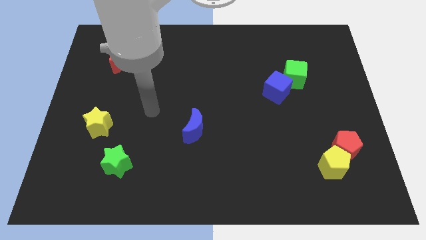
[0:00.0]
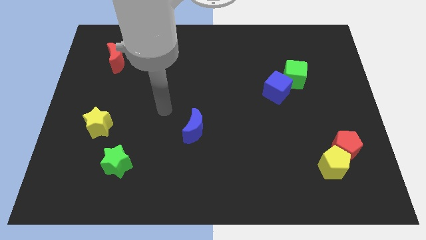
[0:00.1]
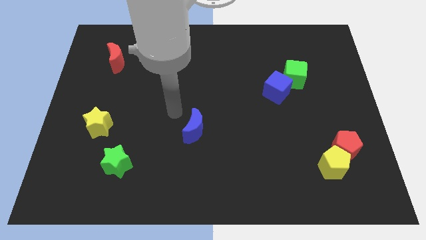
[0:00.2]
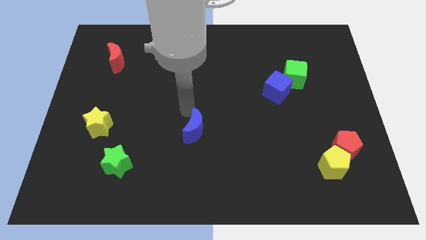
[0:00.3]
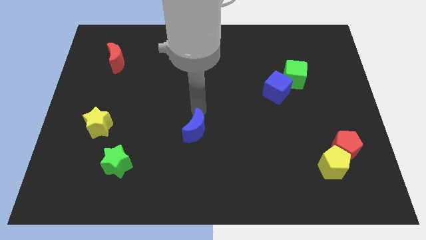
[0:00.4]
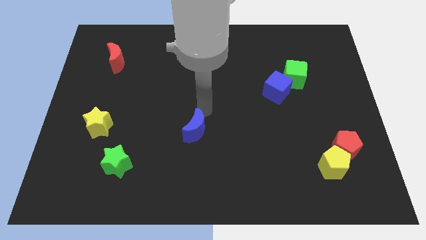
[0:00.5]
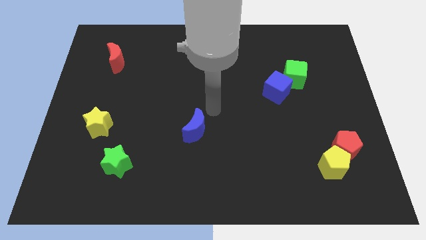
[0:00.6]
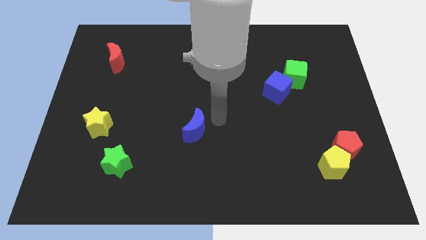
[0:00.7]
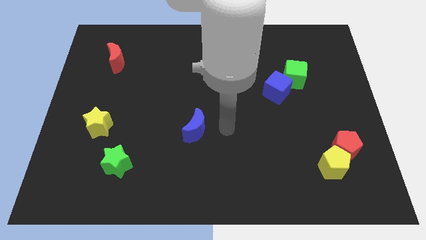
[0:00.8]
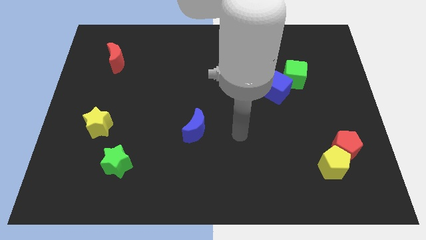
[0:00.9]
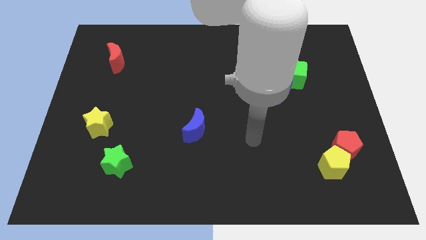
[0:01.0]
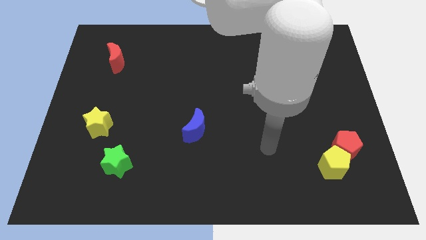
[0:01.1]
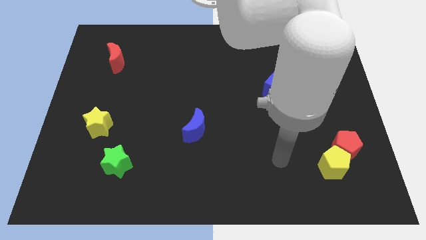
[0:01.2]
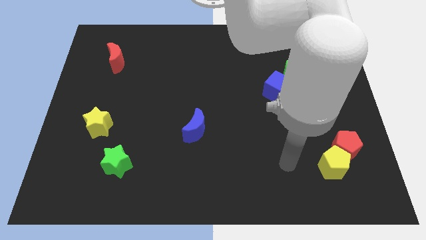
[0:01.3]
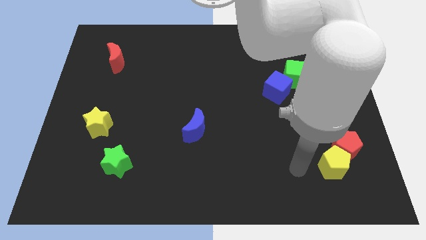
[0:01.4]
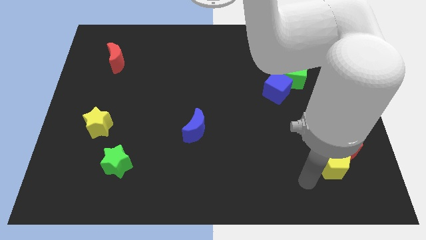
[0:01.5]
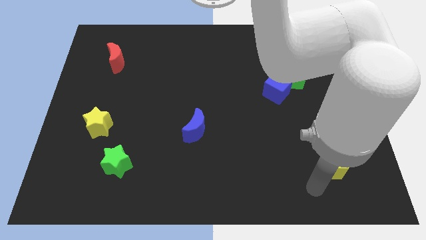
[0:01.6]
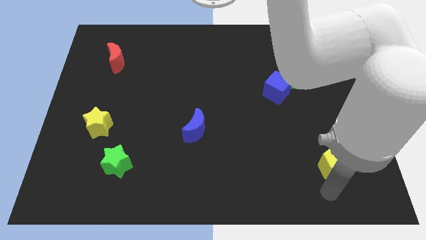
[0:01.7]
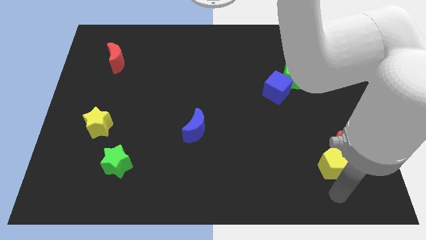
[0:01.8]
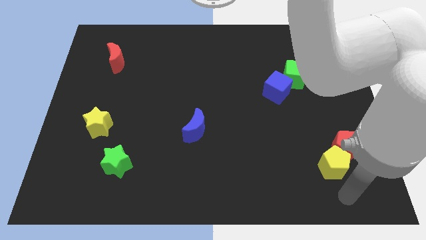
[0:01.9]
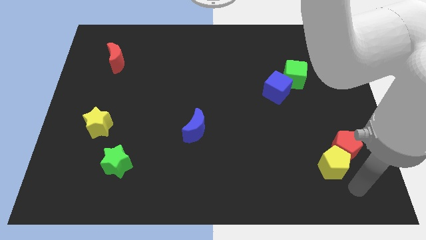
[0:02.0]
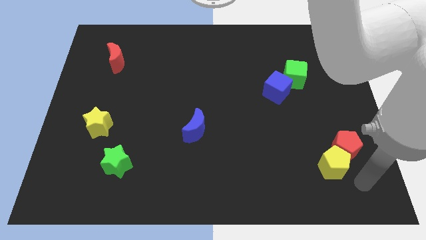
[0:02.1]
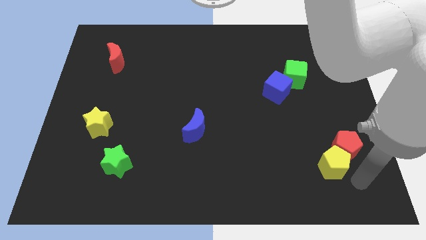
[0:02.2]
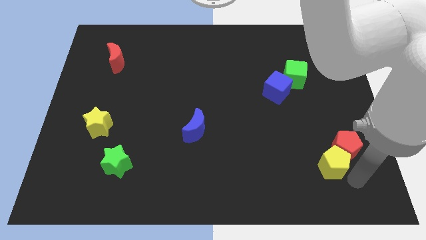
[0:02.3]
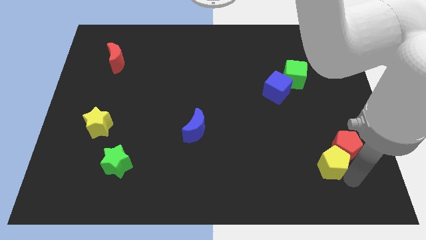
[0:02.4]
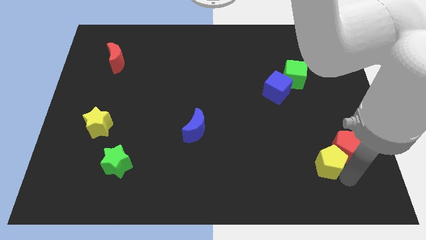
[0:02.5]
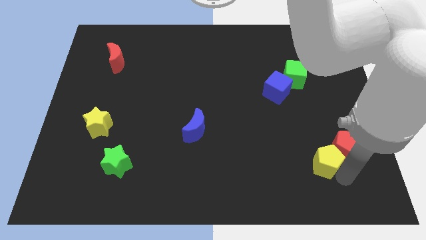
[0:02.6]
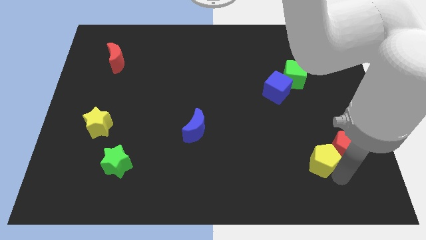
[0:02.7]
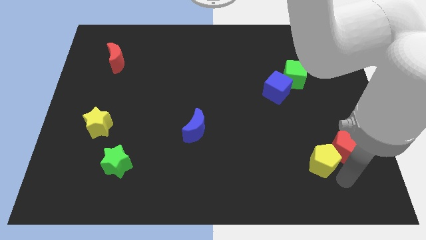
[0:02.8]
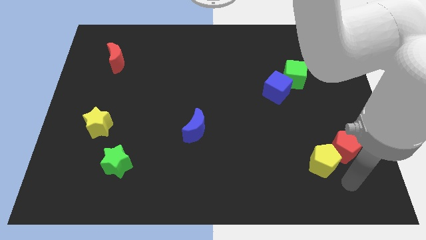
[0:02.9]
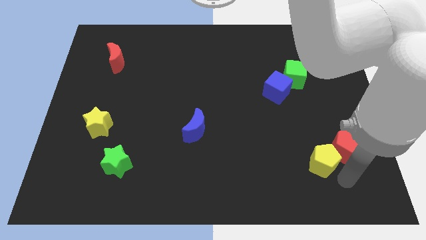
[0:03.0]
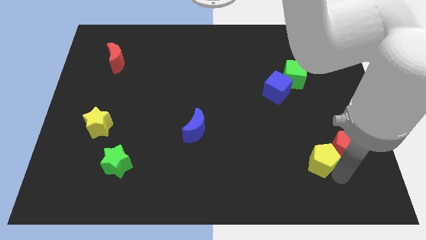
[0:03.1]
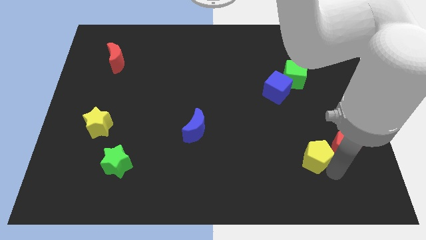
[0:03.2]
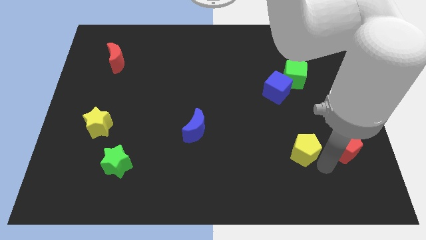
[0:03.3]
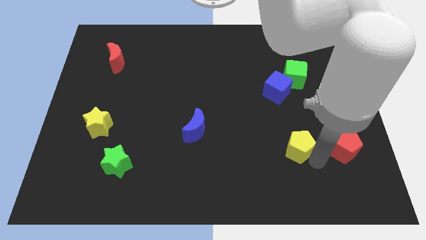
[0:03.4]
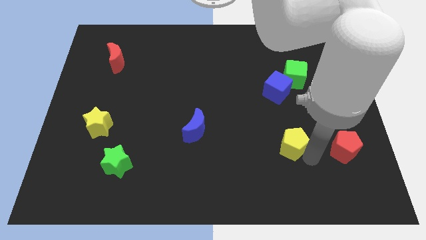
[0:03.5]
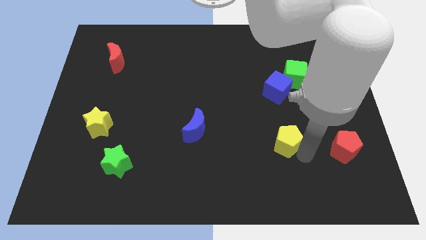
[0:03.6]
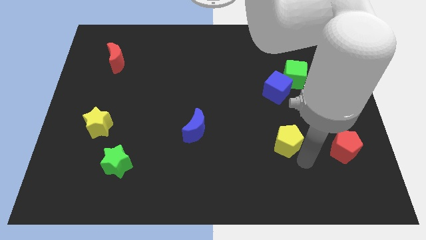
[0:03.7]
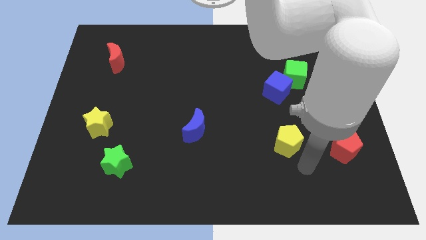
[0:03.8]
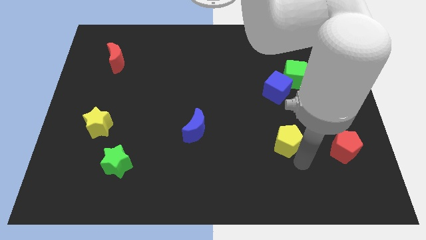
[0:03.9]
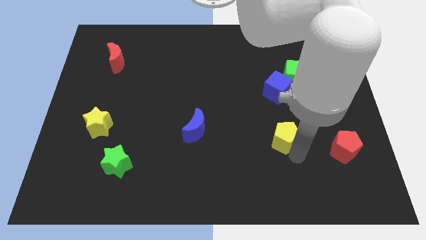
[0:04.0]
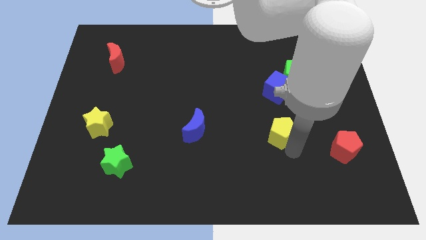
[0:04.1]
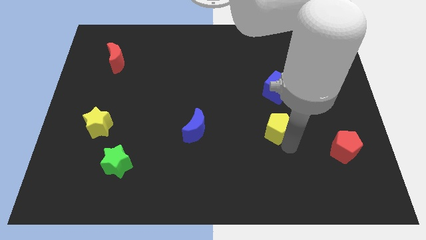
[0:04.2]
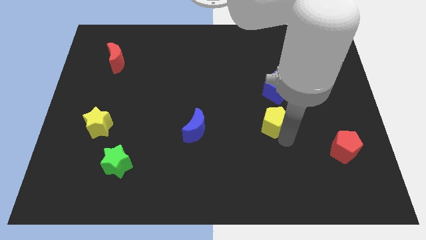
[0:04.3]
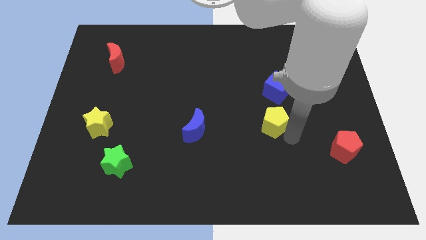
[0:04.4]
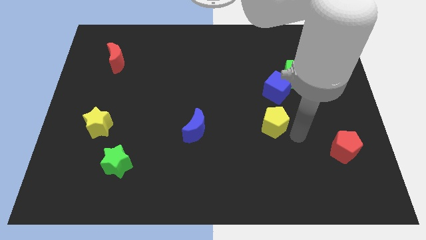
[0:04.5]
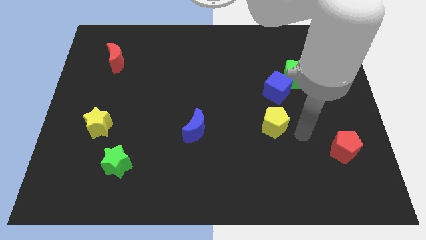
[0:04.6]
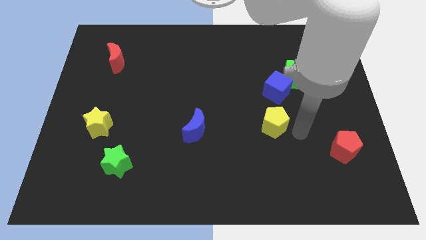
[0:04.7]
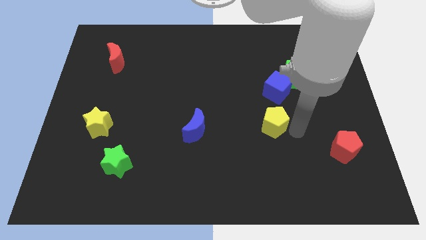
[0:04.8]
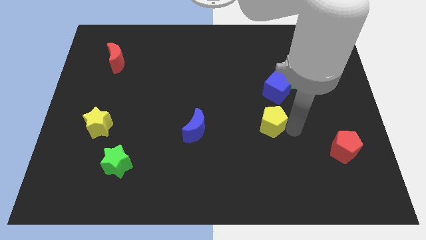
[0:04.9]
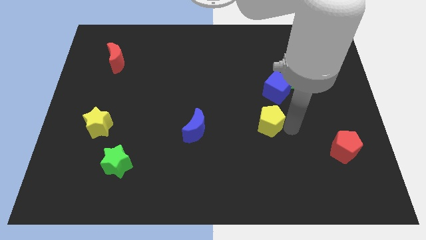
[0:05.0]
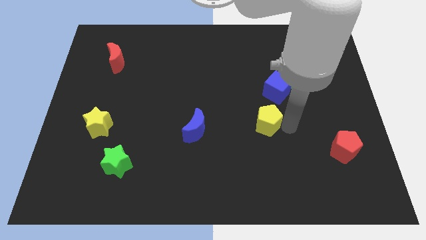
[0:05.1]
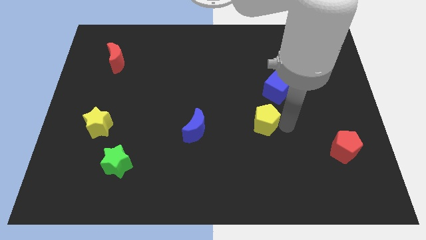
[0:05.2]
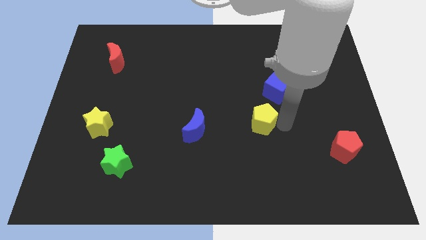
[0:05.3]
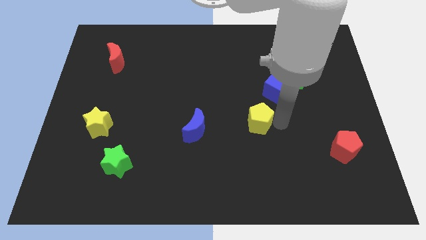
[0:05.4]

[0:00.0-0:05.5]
move the yellow pentagon to the center of the board

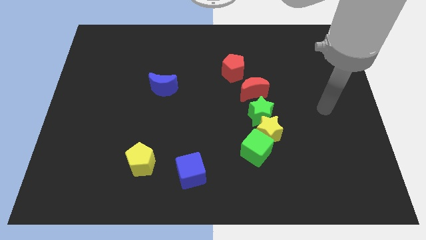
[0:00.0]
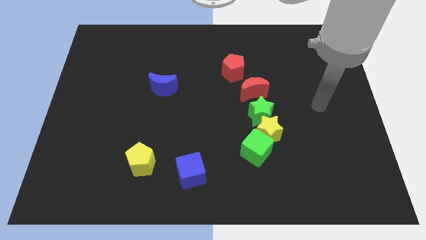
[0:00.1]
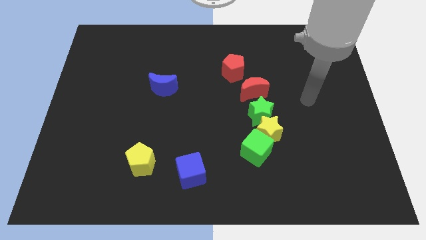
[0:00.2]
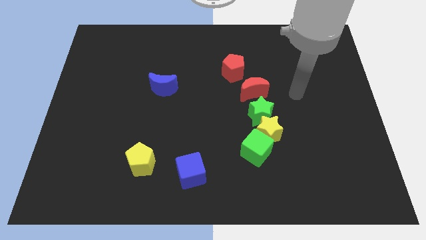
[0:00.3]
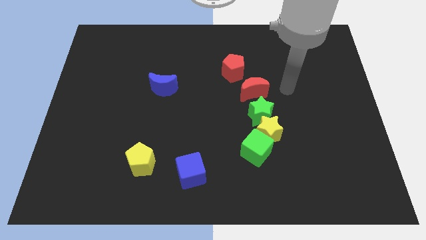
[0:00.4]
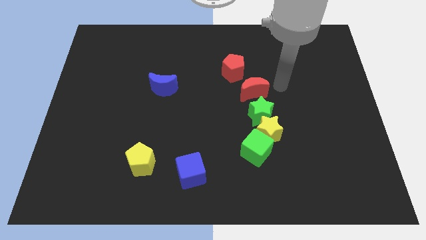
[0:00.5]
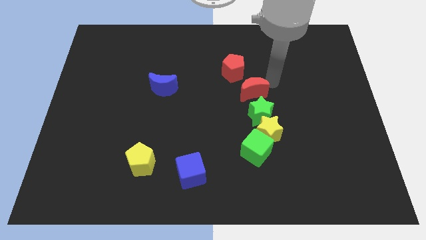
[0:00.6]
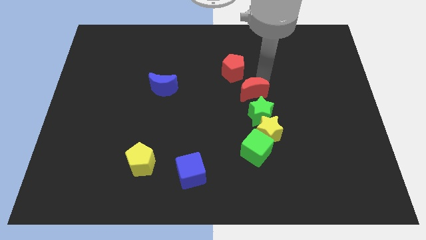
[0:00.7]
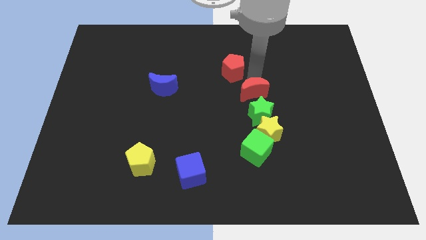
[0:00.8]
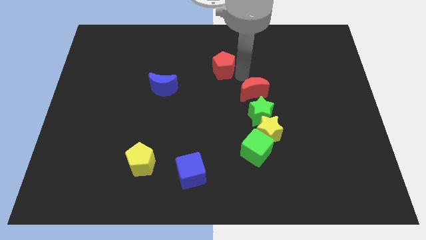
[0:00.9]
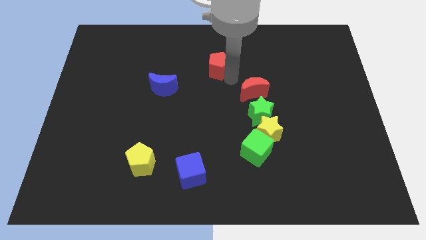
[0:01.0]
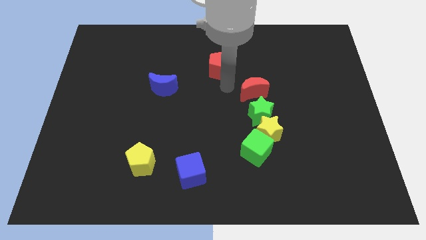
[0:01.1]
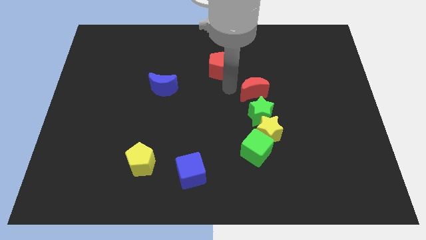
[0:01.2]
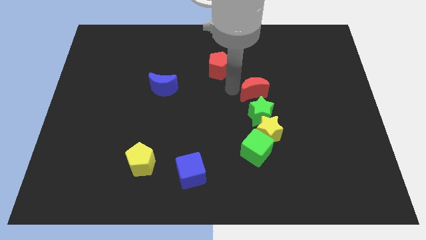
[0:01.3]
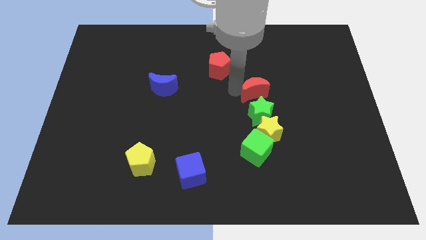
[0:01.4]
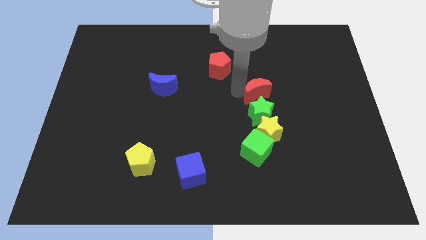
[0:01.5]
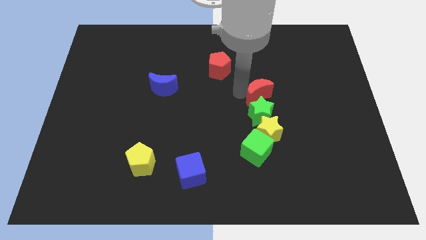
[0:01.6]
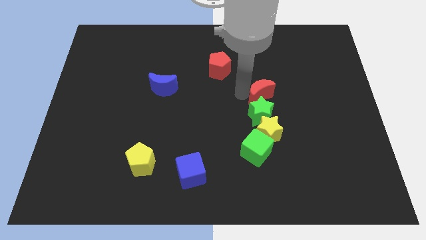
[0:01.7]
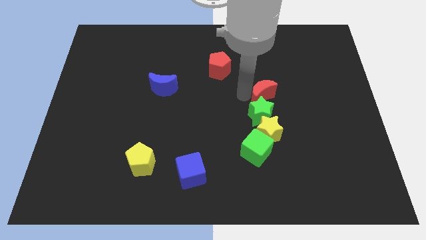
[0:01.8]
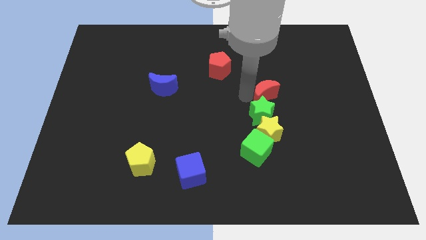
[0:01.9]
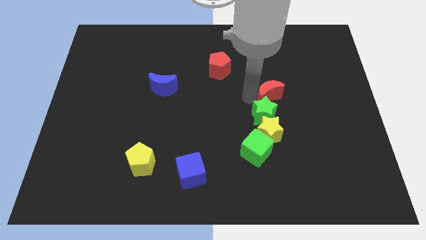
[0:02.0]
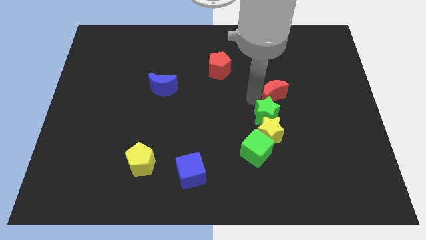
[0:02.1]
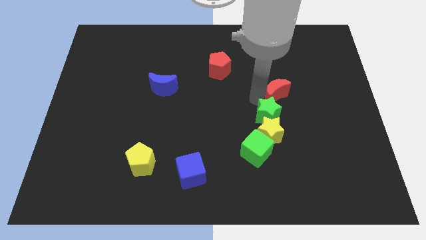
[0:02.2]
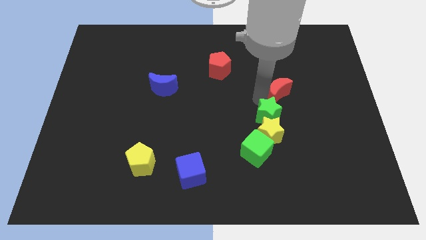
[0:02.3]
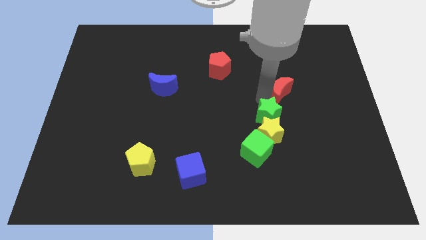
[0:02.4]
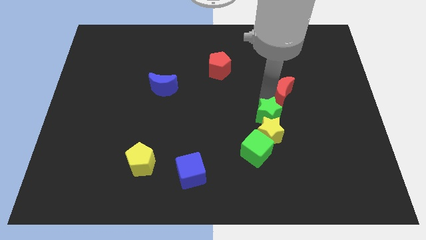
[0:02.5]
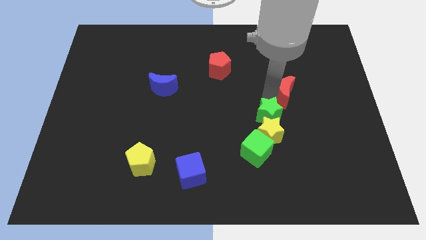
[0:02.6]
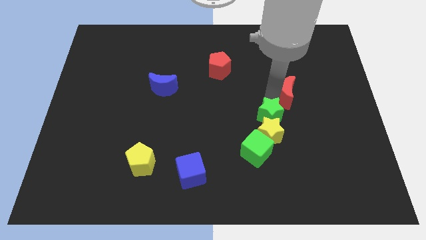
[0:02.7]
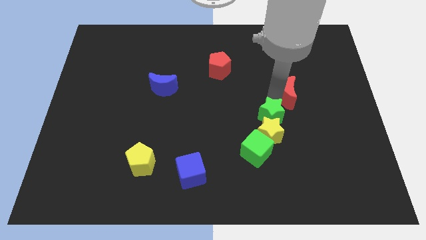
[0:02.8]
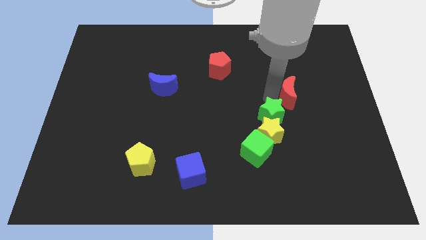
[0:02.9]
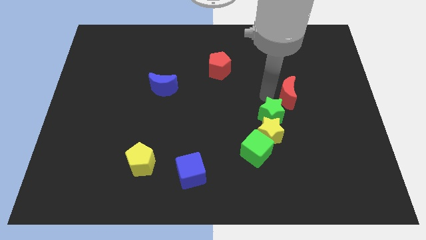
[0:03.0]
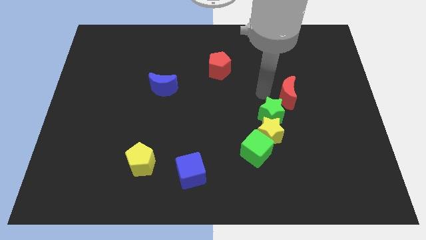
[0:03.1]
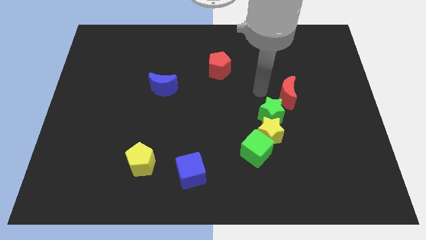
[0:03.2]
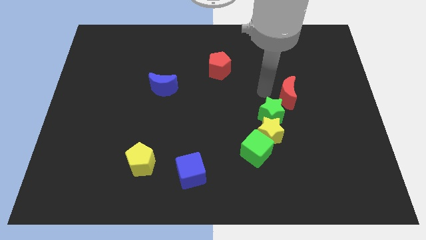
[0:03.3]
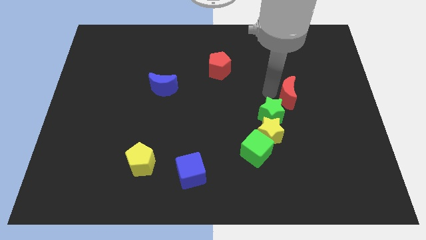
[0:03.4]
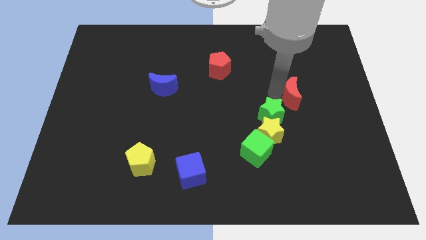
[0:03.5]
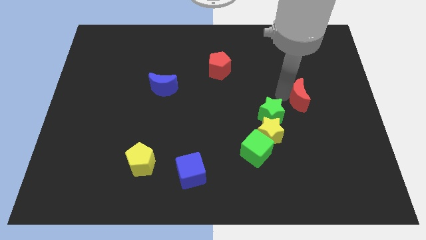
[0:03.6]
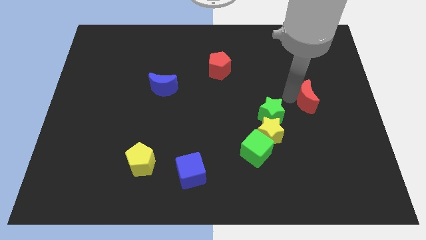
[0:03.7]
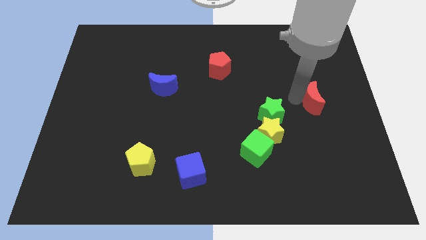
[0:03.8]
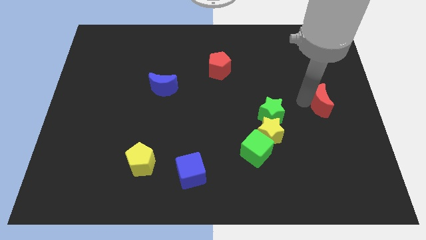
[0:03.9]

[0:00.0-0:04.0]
move the red moon to the right side
